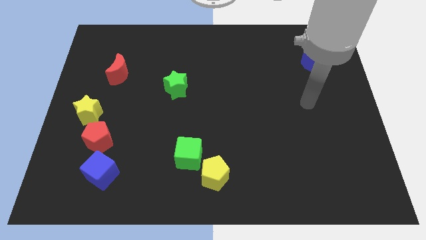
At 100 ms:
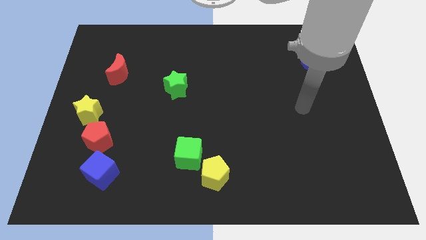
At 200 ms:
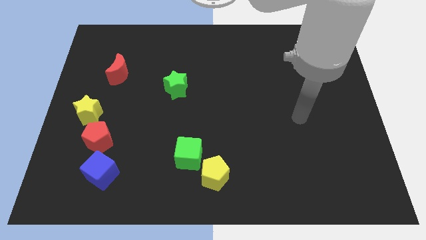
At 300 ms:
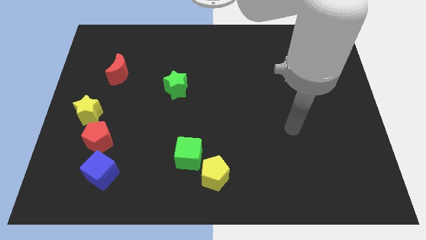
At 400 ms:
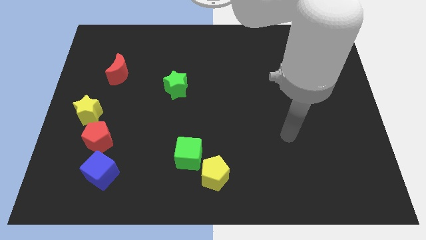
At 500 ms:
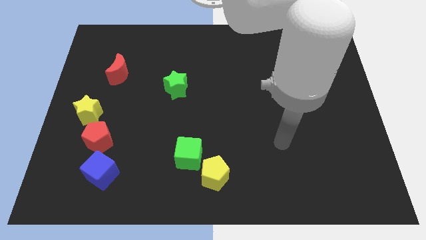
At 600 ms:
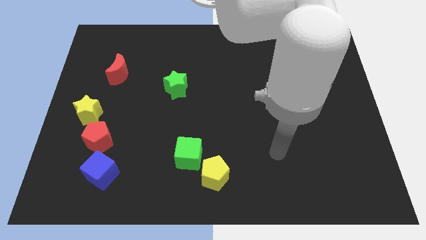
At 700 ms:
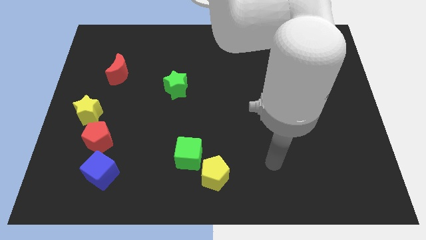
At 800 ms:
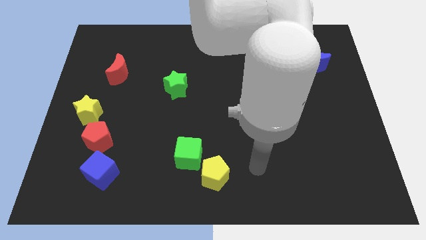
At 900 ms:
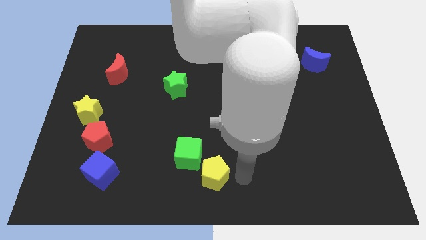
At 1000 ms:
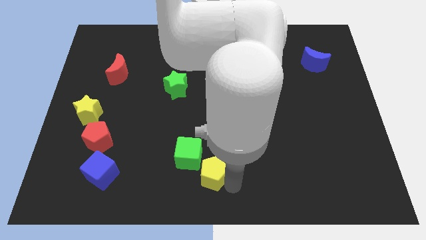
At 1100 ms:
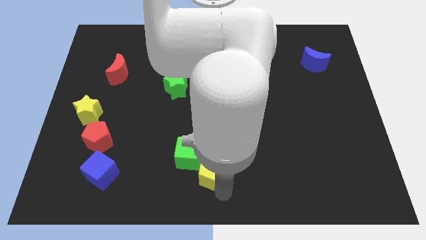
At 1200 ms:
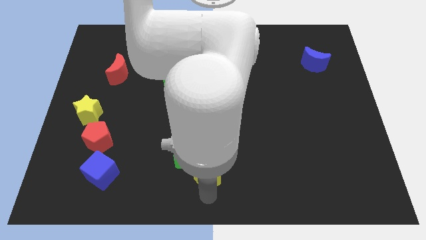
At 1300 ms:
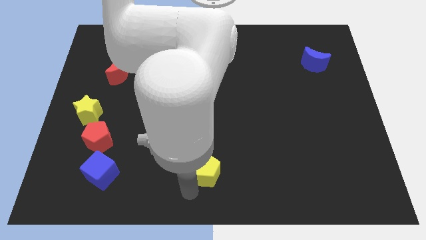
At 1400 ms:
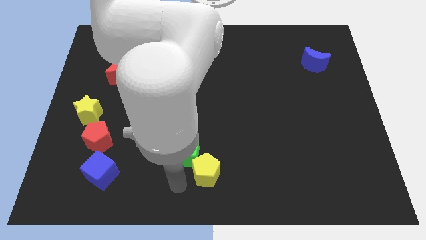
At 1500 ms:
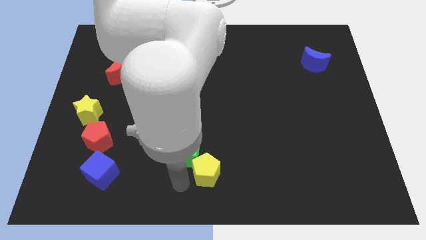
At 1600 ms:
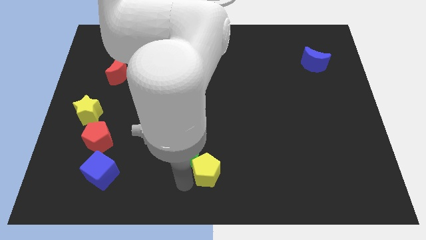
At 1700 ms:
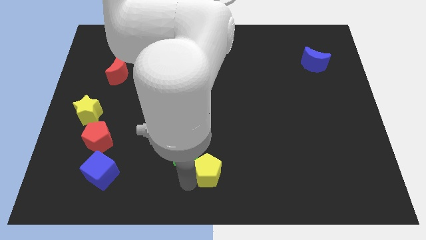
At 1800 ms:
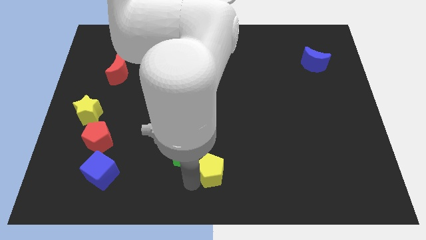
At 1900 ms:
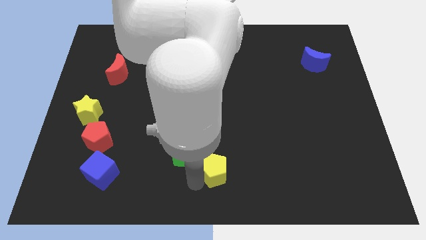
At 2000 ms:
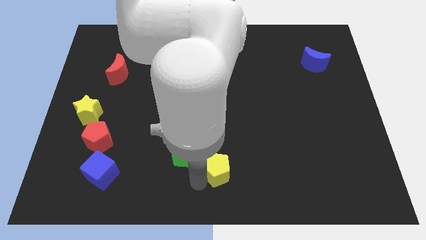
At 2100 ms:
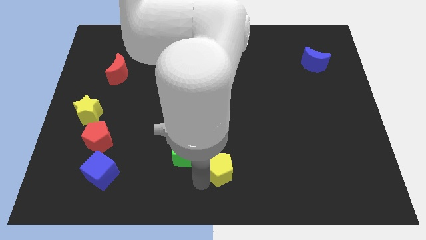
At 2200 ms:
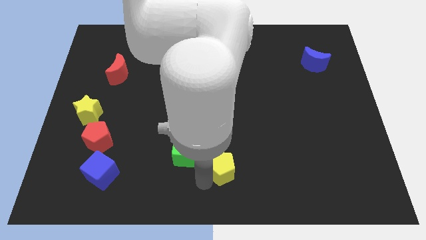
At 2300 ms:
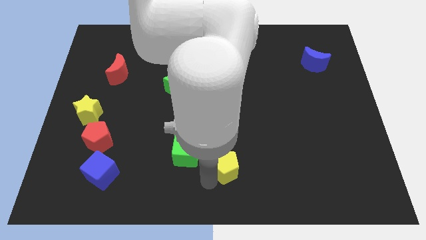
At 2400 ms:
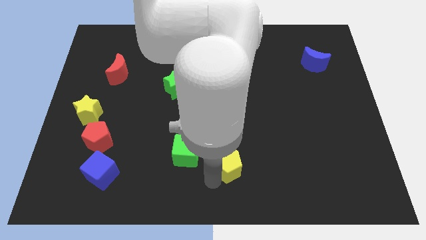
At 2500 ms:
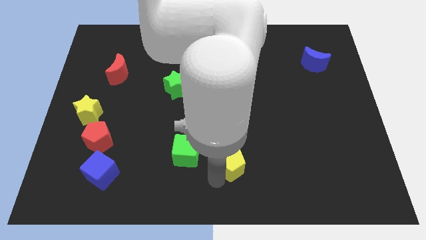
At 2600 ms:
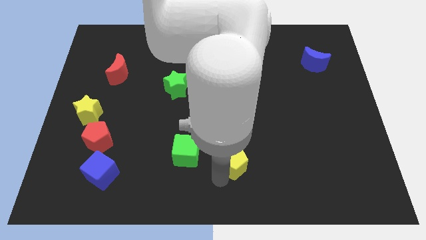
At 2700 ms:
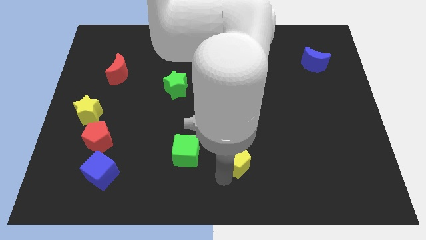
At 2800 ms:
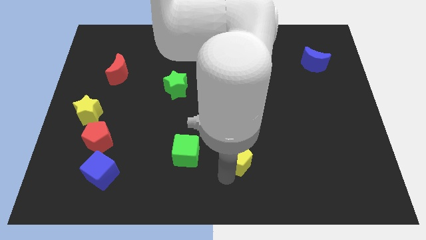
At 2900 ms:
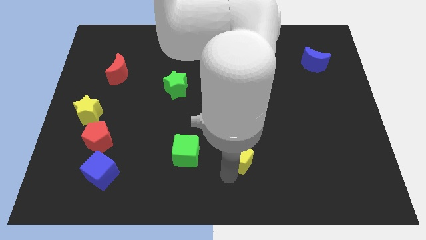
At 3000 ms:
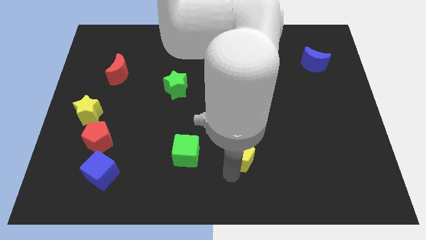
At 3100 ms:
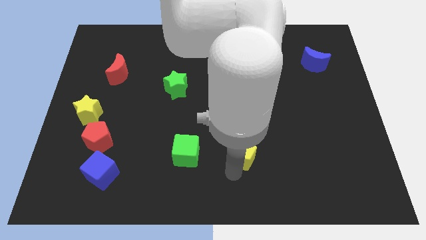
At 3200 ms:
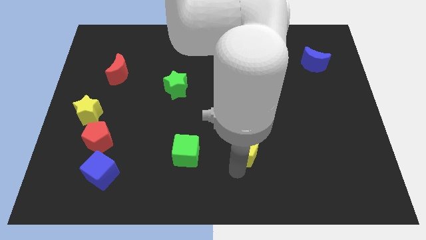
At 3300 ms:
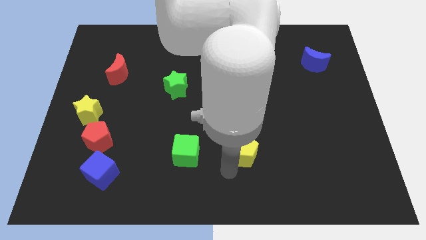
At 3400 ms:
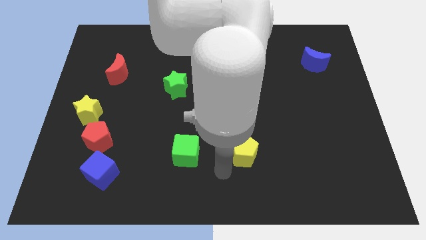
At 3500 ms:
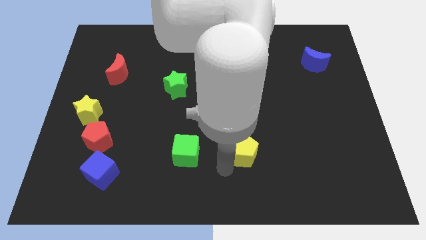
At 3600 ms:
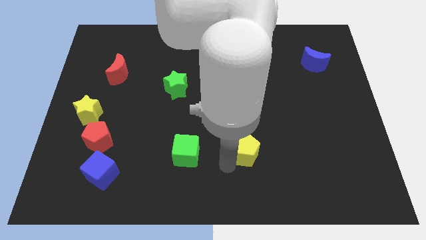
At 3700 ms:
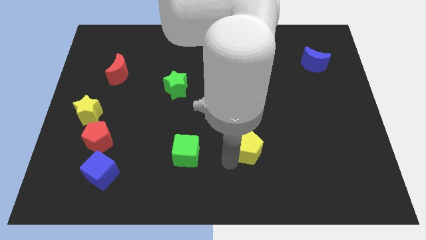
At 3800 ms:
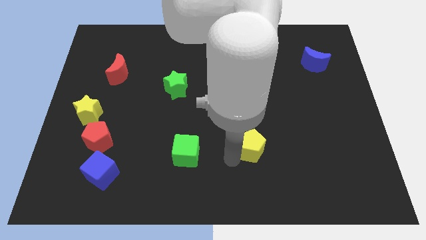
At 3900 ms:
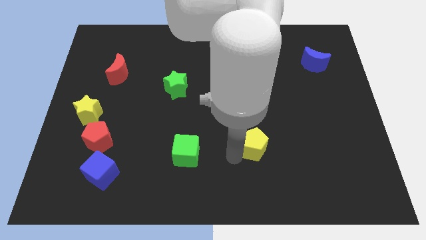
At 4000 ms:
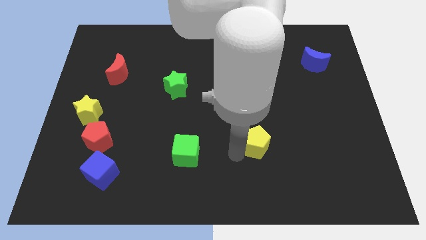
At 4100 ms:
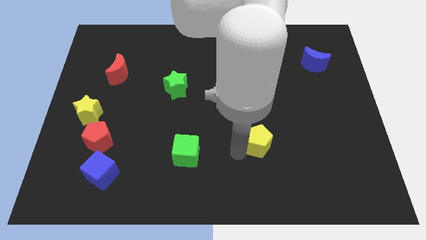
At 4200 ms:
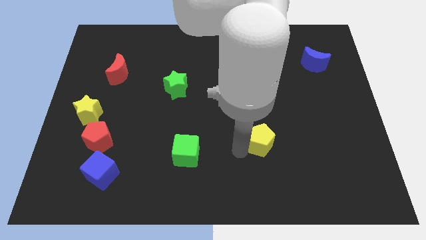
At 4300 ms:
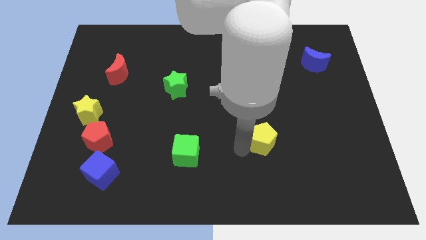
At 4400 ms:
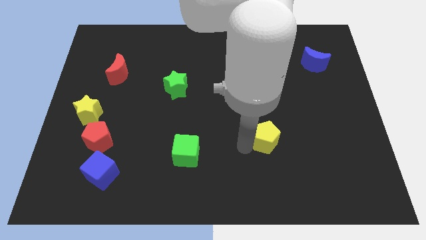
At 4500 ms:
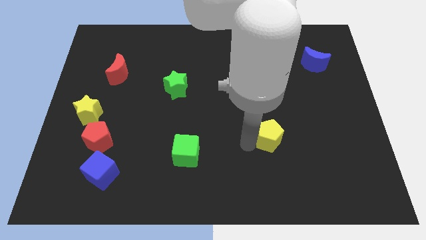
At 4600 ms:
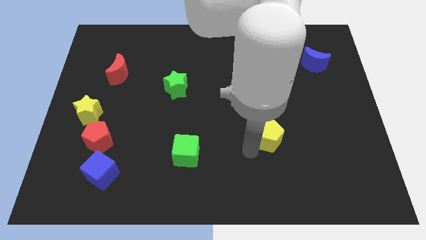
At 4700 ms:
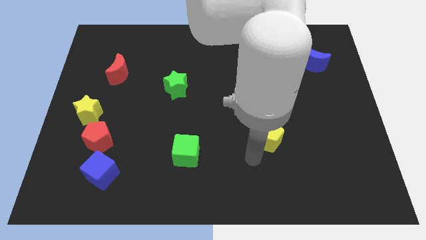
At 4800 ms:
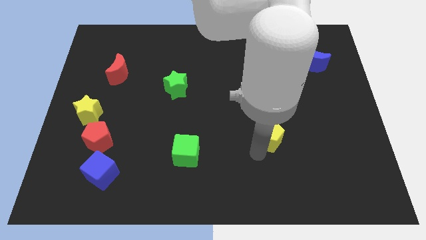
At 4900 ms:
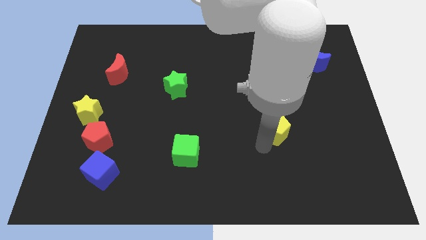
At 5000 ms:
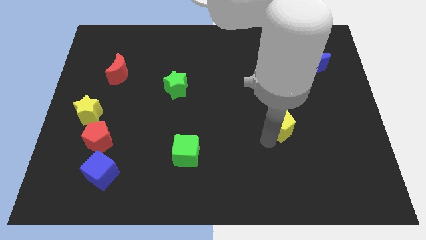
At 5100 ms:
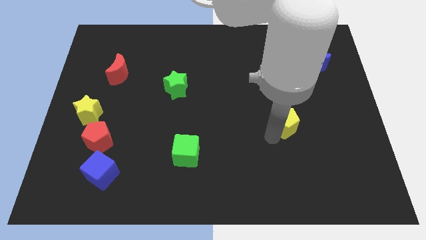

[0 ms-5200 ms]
move the yellow pentagon up and to the right

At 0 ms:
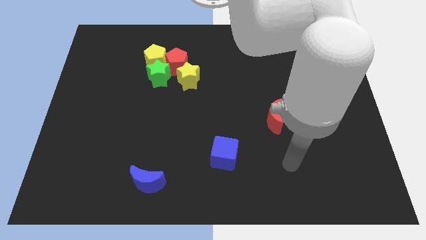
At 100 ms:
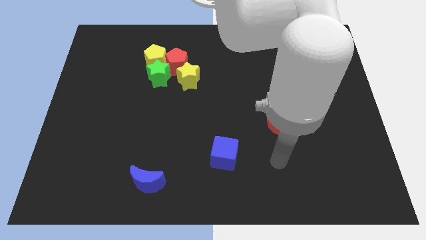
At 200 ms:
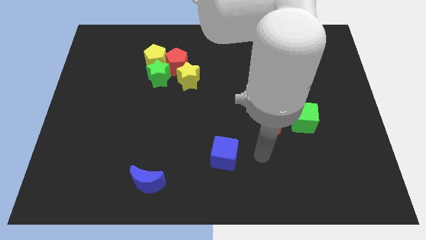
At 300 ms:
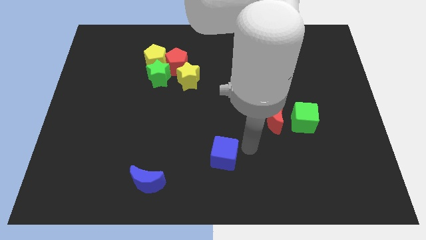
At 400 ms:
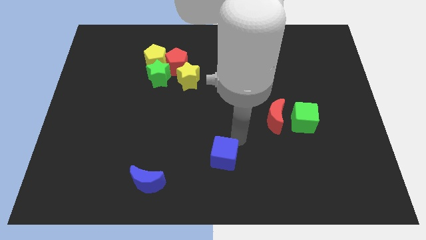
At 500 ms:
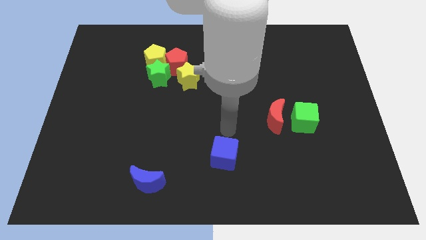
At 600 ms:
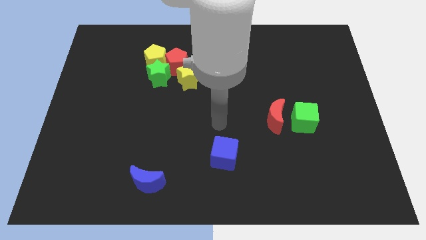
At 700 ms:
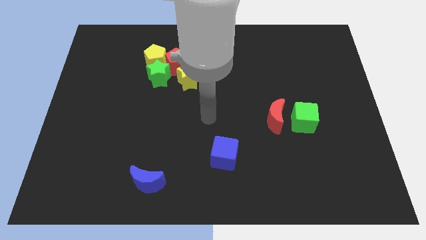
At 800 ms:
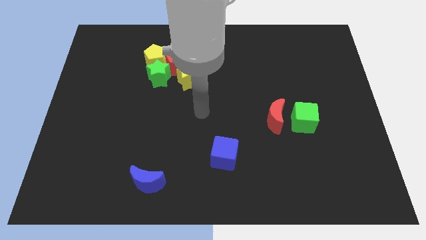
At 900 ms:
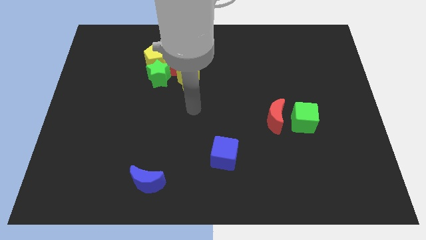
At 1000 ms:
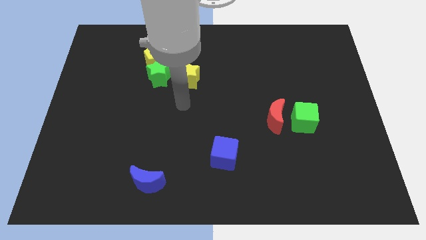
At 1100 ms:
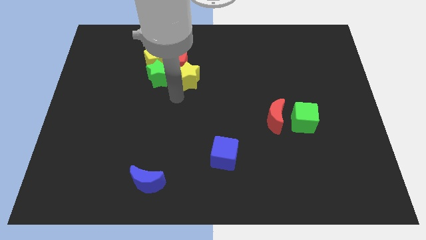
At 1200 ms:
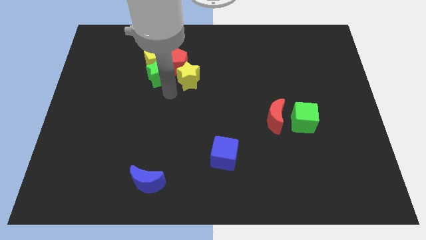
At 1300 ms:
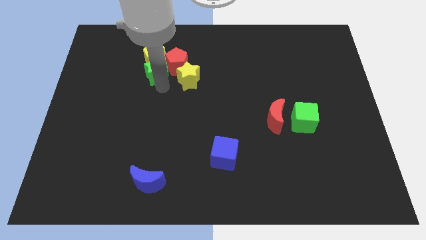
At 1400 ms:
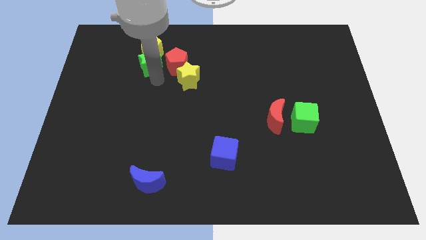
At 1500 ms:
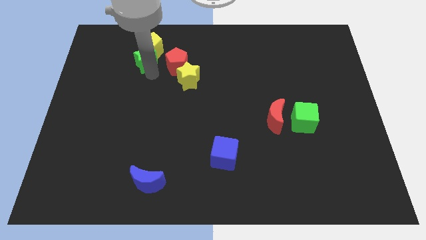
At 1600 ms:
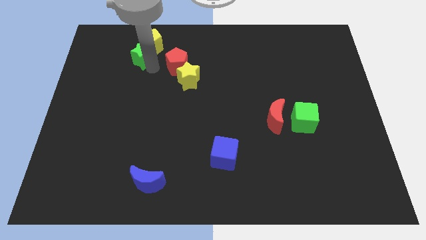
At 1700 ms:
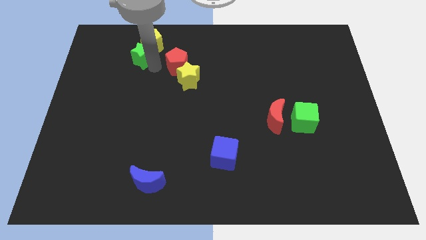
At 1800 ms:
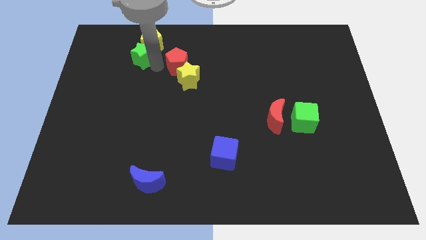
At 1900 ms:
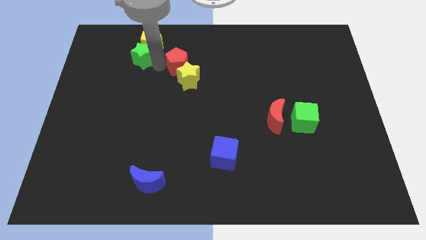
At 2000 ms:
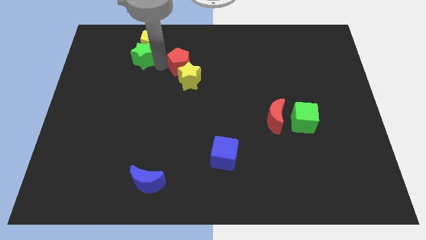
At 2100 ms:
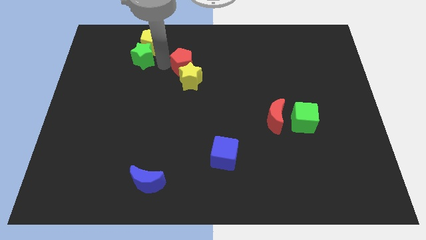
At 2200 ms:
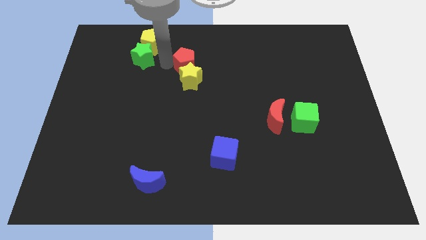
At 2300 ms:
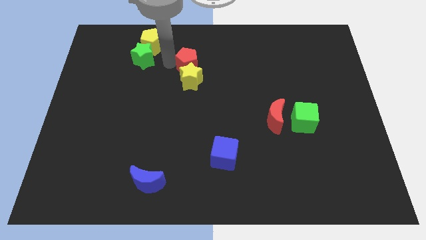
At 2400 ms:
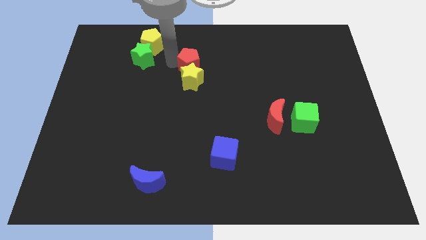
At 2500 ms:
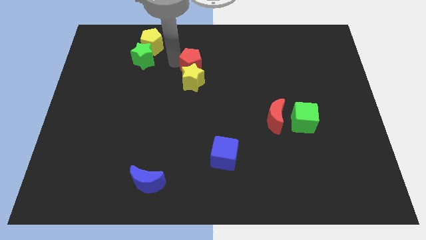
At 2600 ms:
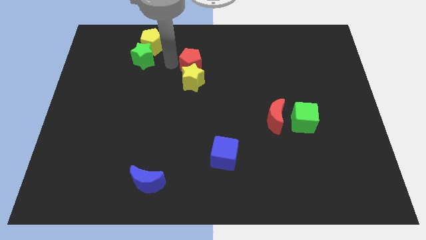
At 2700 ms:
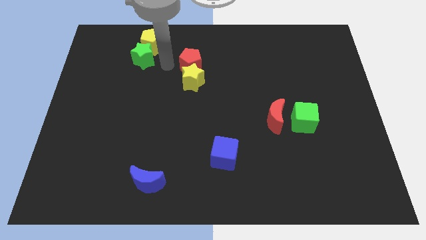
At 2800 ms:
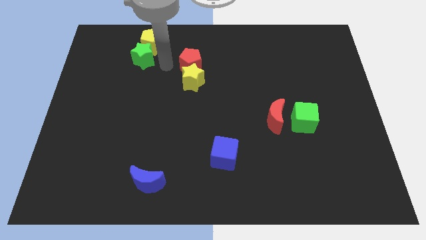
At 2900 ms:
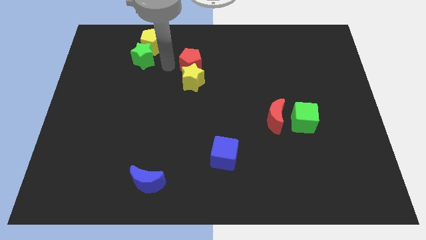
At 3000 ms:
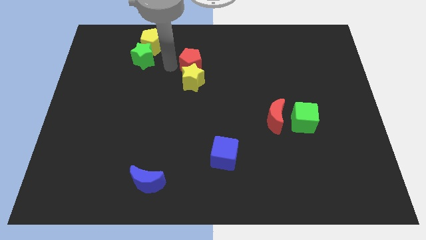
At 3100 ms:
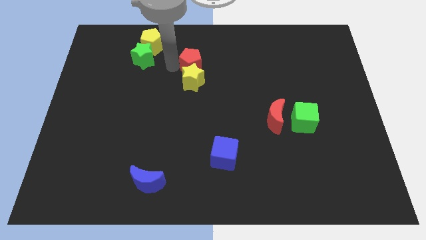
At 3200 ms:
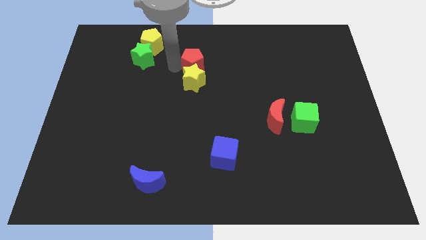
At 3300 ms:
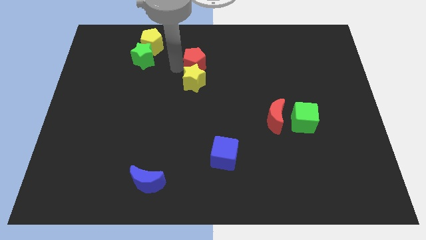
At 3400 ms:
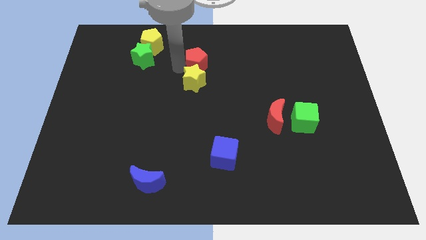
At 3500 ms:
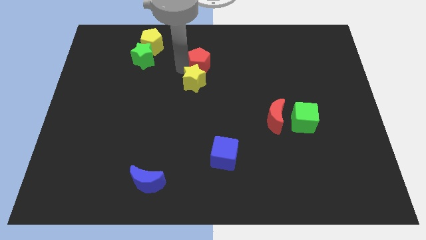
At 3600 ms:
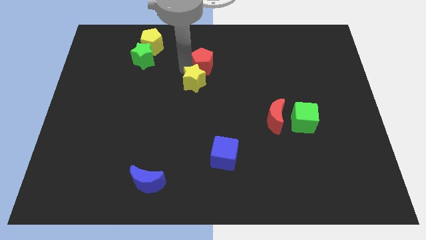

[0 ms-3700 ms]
slightly slide the red pentagon right
